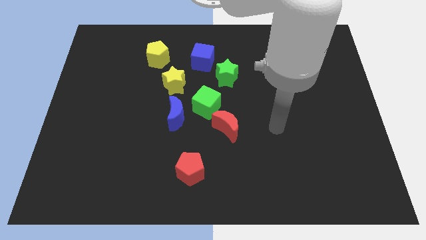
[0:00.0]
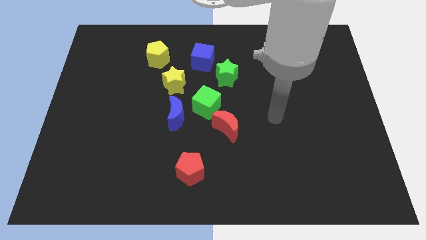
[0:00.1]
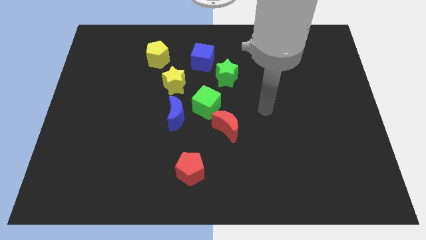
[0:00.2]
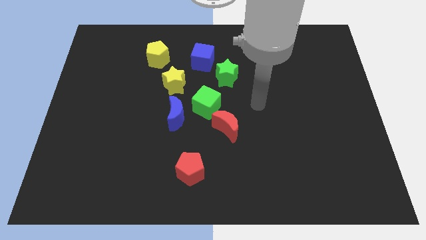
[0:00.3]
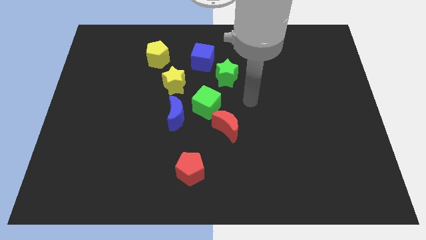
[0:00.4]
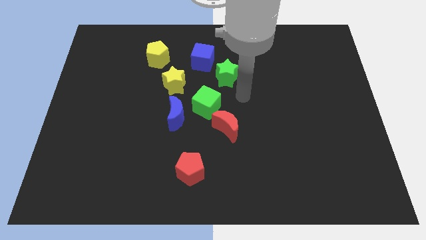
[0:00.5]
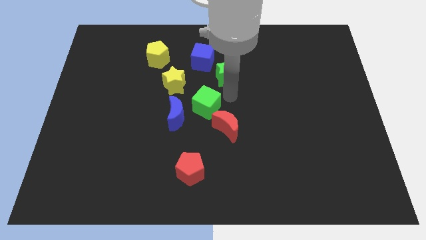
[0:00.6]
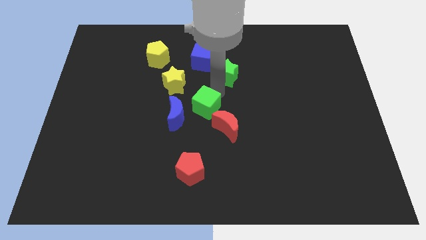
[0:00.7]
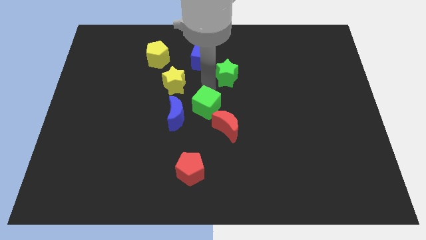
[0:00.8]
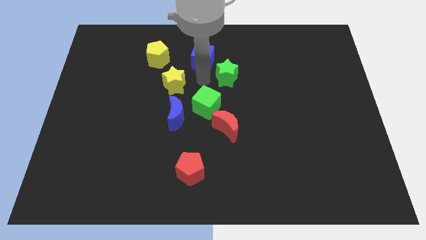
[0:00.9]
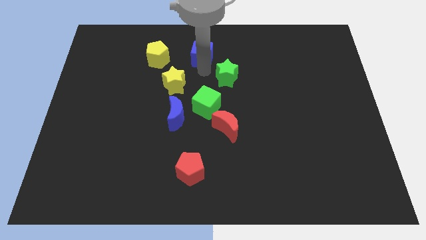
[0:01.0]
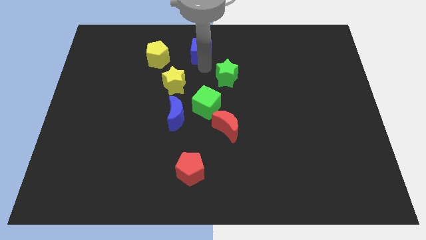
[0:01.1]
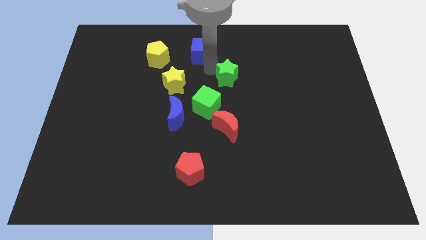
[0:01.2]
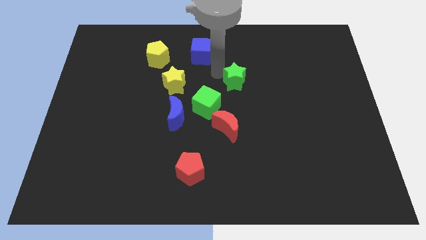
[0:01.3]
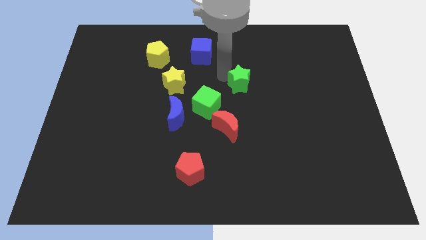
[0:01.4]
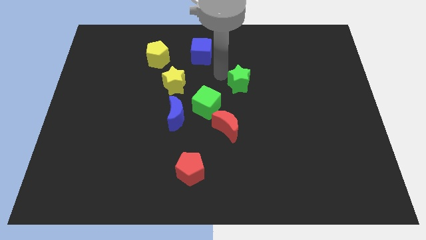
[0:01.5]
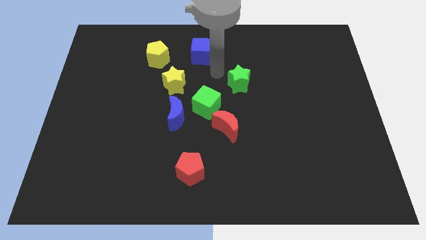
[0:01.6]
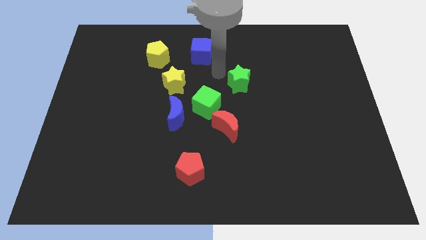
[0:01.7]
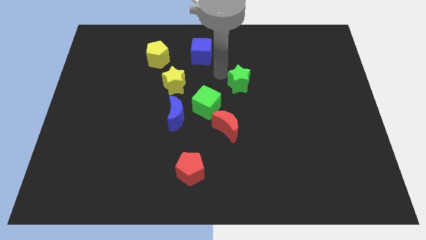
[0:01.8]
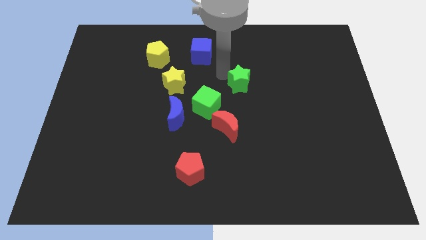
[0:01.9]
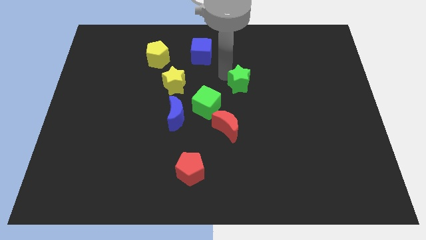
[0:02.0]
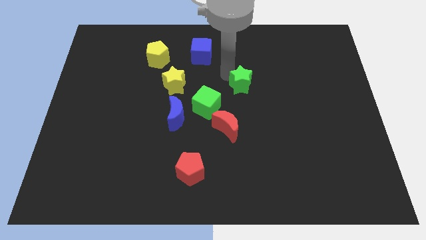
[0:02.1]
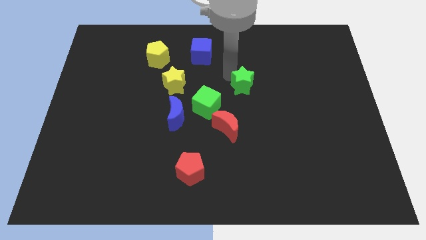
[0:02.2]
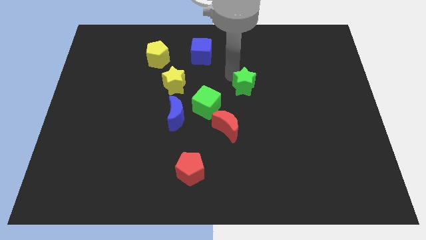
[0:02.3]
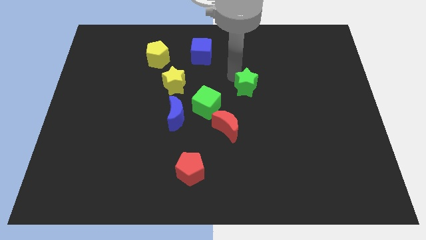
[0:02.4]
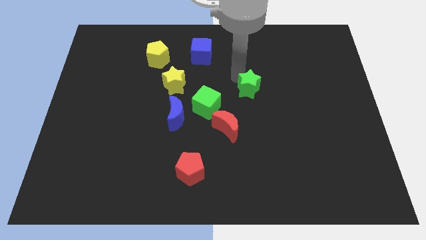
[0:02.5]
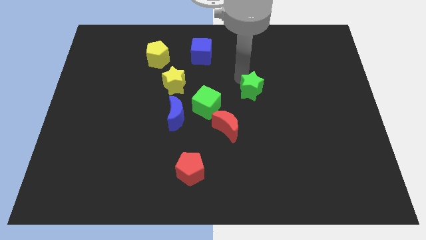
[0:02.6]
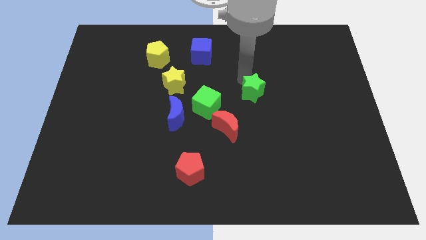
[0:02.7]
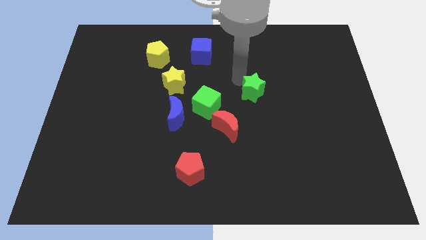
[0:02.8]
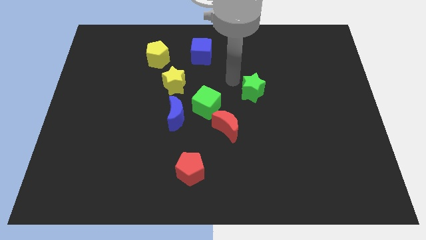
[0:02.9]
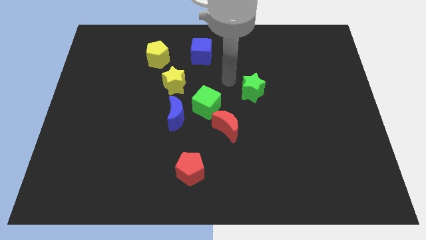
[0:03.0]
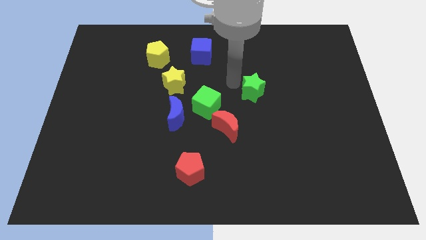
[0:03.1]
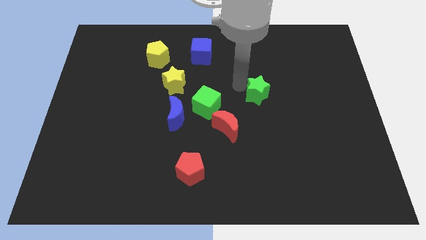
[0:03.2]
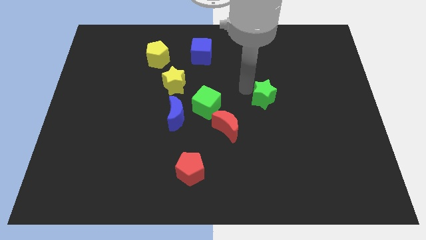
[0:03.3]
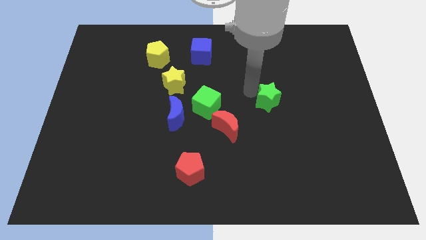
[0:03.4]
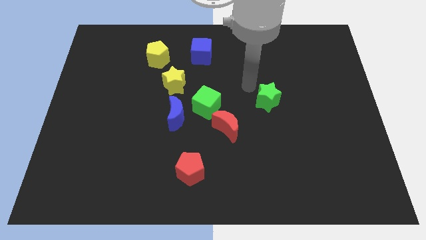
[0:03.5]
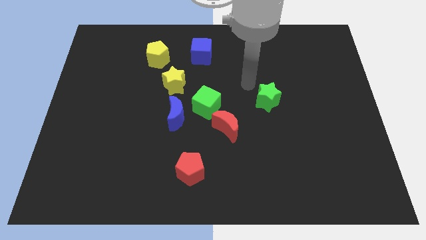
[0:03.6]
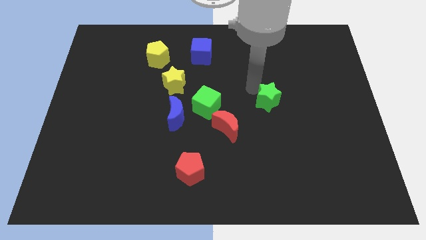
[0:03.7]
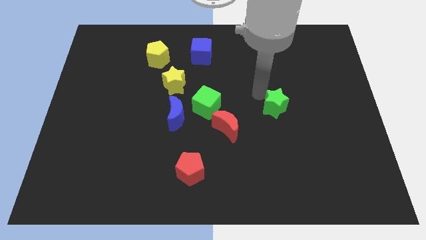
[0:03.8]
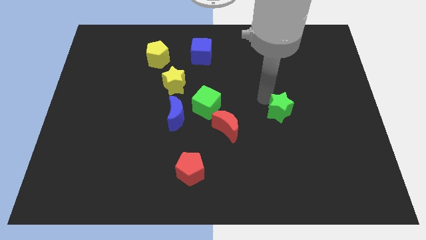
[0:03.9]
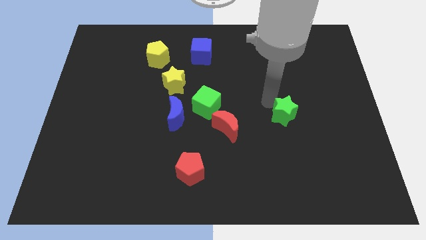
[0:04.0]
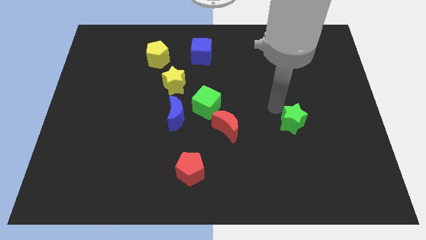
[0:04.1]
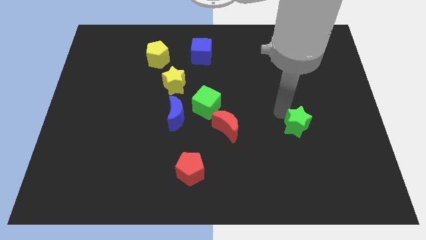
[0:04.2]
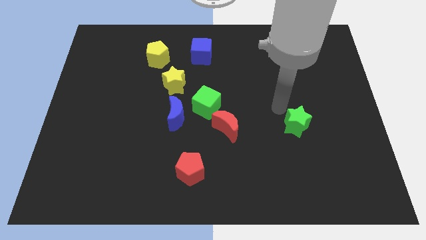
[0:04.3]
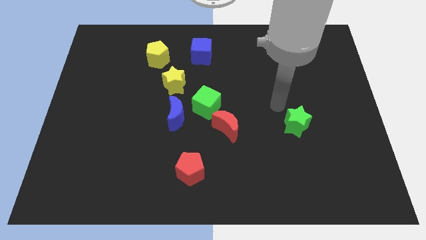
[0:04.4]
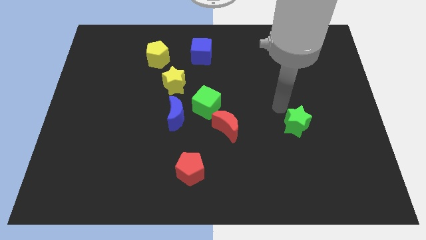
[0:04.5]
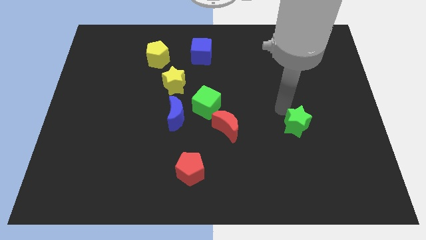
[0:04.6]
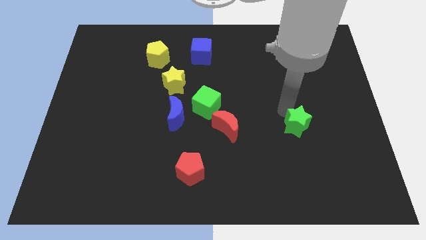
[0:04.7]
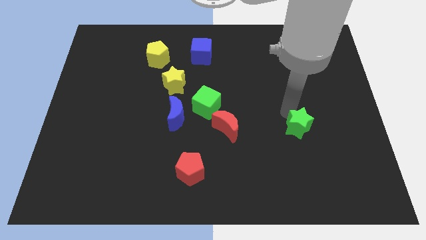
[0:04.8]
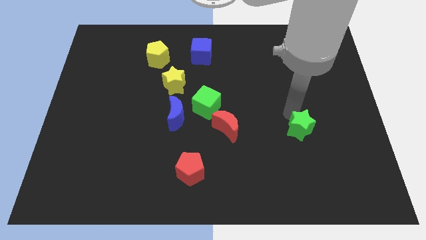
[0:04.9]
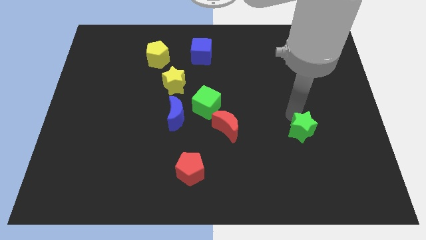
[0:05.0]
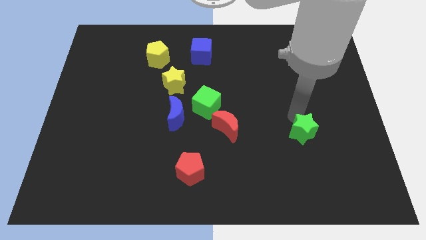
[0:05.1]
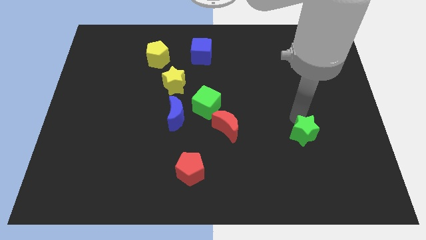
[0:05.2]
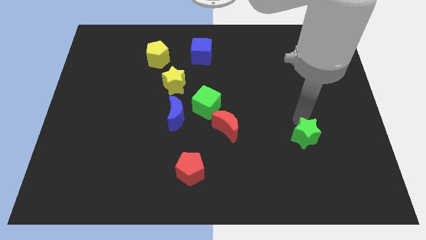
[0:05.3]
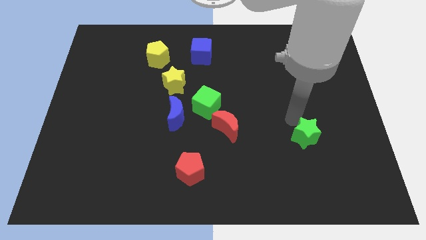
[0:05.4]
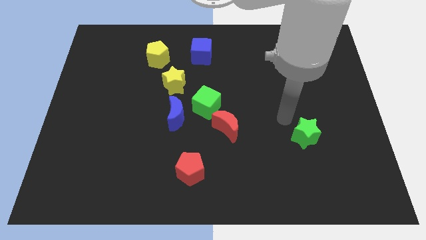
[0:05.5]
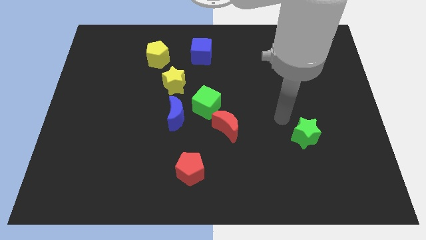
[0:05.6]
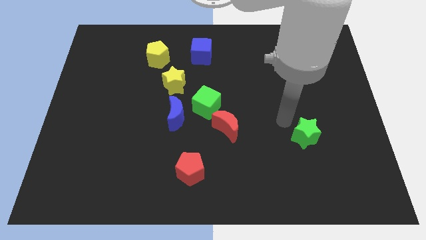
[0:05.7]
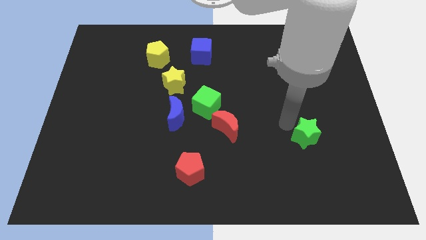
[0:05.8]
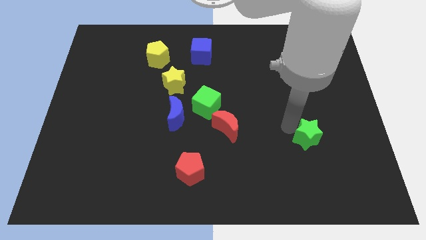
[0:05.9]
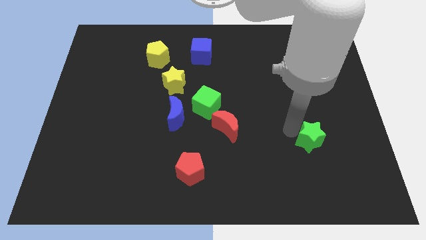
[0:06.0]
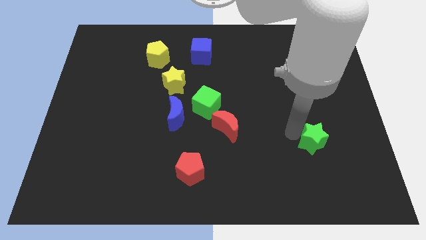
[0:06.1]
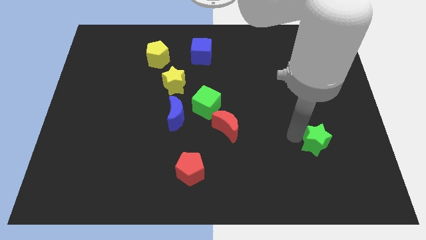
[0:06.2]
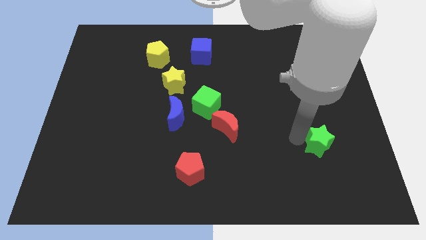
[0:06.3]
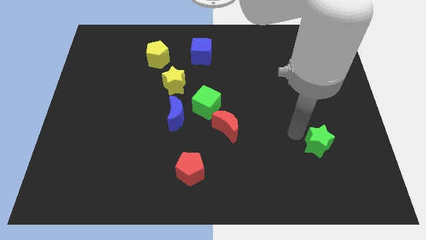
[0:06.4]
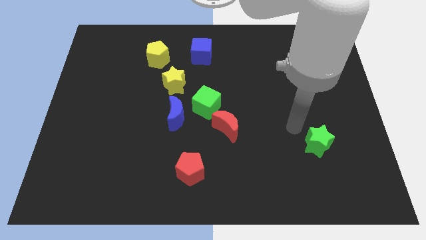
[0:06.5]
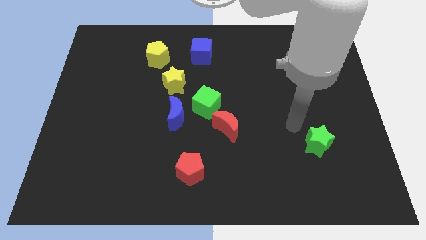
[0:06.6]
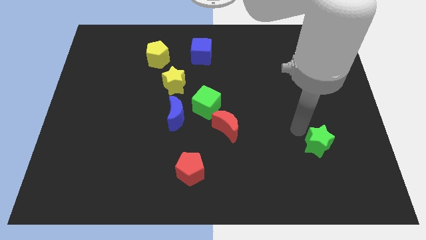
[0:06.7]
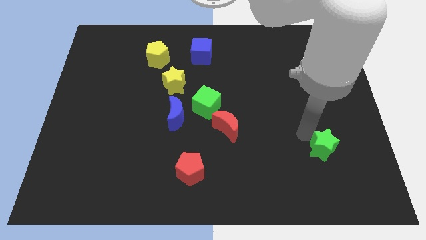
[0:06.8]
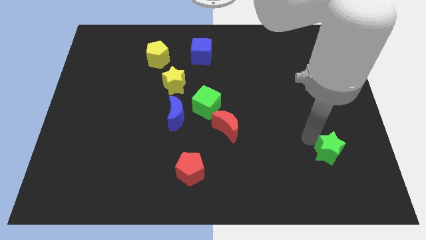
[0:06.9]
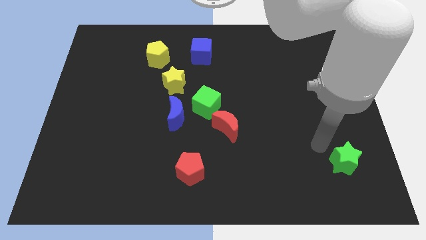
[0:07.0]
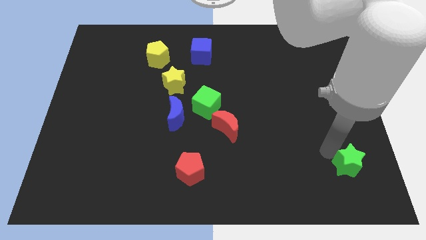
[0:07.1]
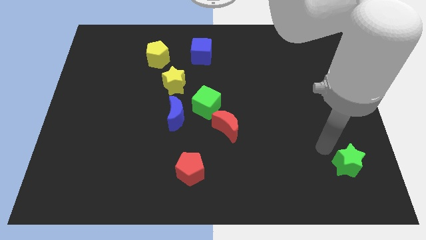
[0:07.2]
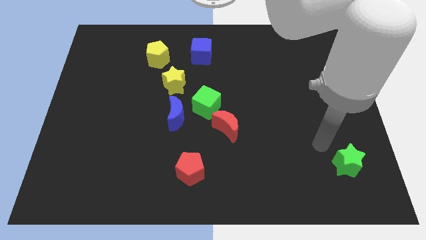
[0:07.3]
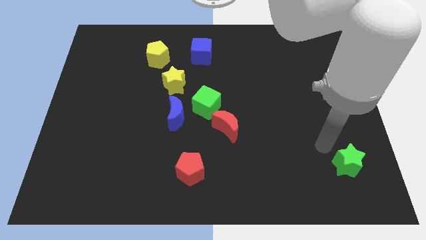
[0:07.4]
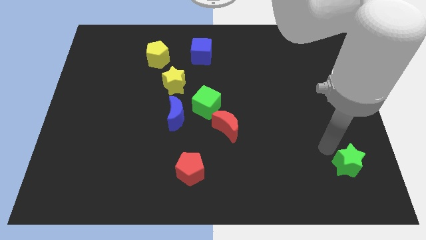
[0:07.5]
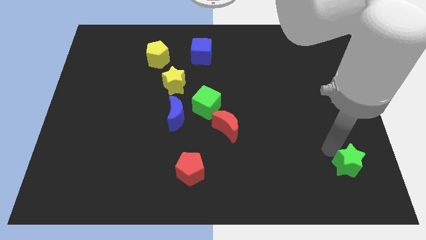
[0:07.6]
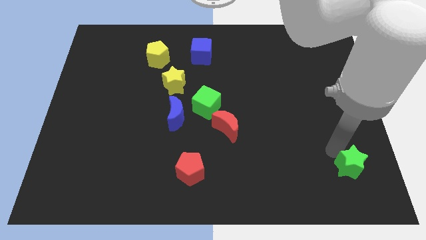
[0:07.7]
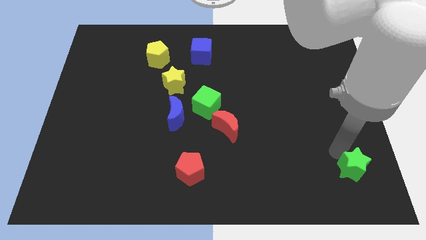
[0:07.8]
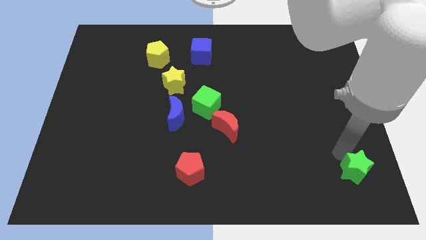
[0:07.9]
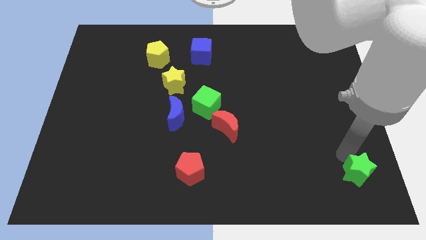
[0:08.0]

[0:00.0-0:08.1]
move the green star to the bottom right corner
